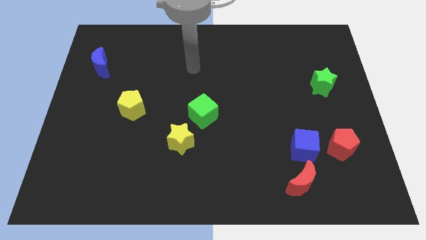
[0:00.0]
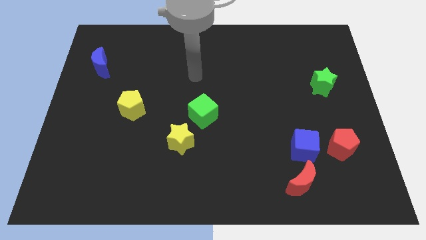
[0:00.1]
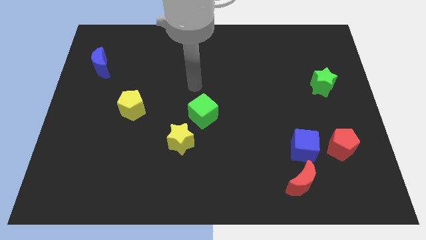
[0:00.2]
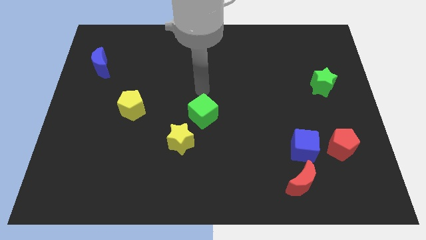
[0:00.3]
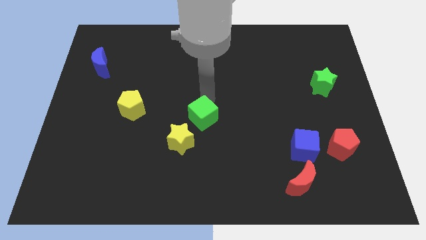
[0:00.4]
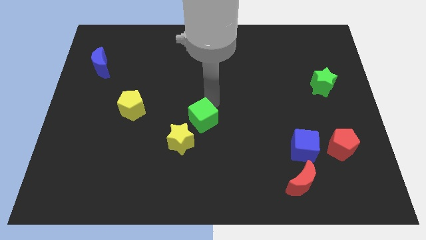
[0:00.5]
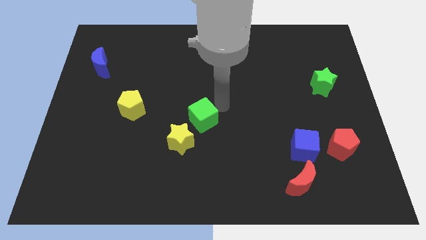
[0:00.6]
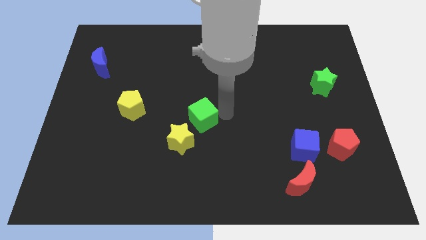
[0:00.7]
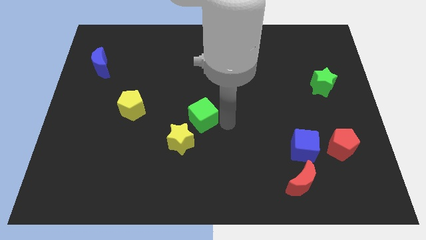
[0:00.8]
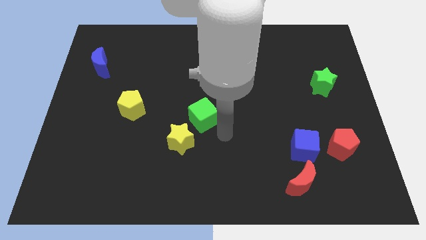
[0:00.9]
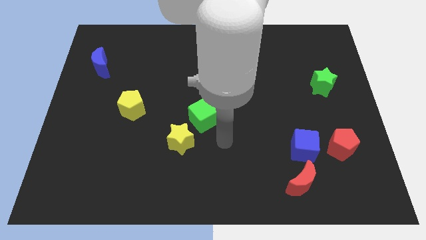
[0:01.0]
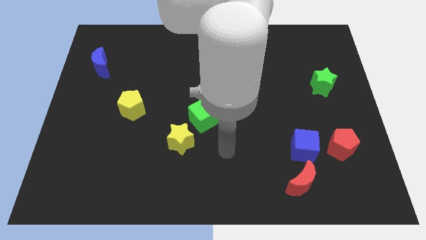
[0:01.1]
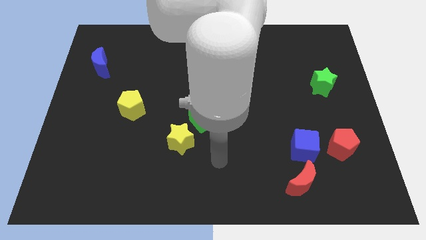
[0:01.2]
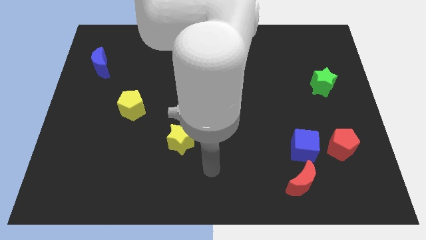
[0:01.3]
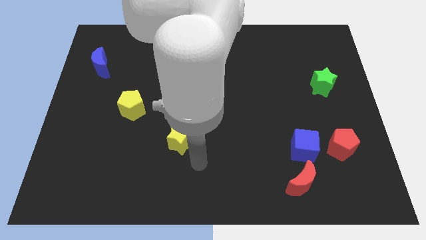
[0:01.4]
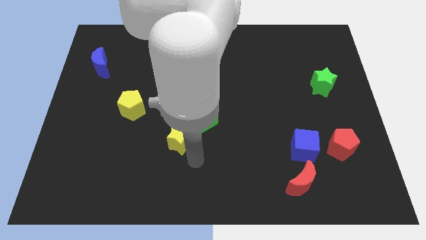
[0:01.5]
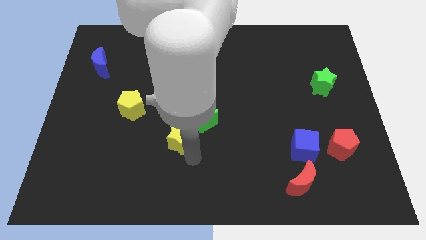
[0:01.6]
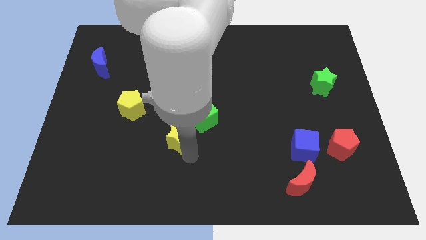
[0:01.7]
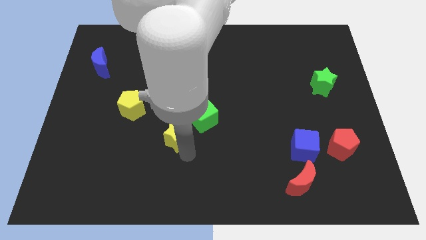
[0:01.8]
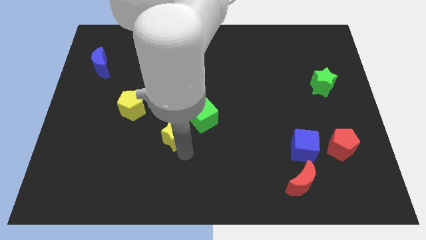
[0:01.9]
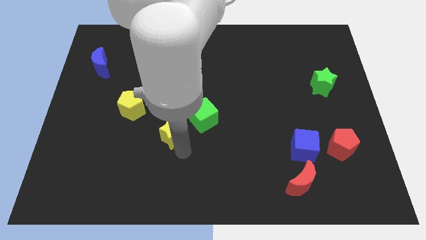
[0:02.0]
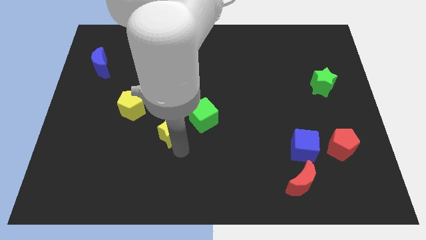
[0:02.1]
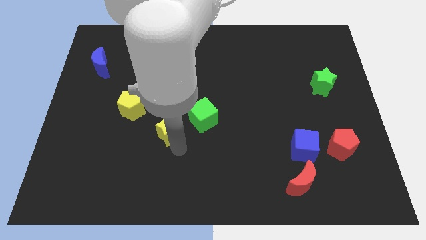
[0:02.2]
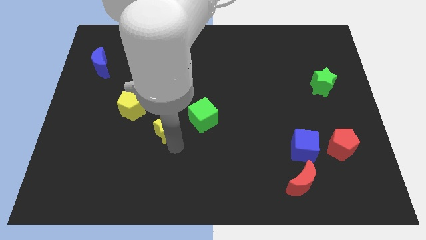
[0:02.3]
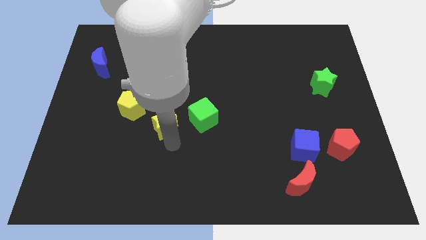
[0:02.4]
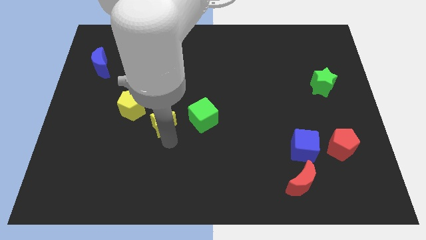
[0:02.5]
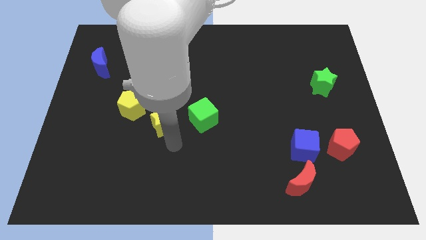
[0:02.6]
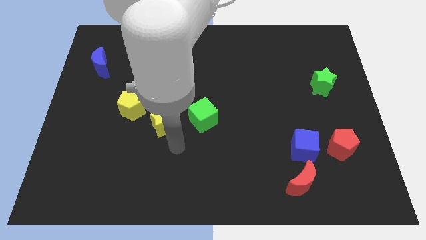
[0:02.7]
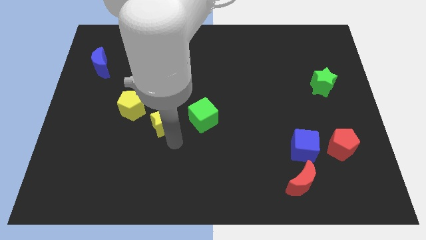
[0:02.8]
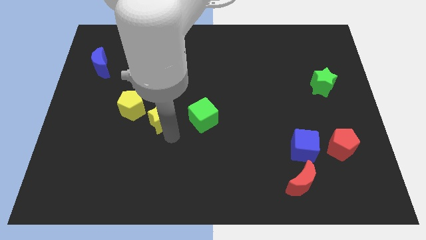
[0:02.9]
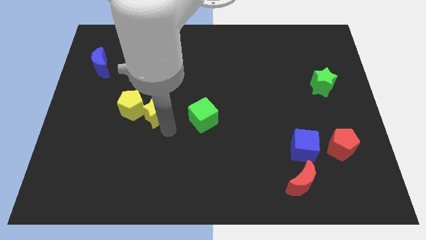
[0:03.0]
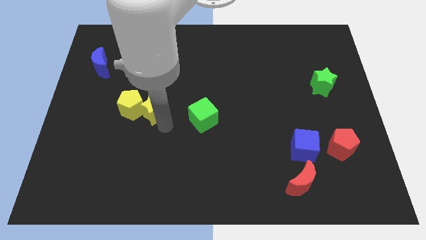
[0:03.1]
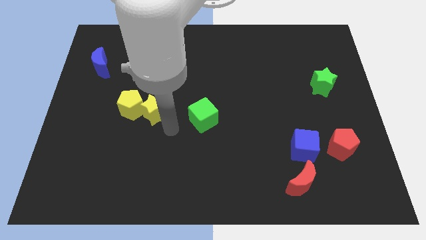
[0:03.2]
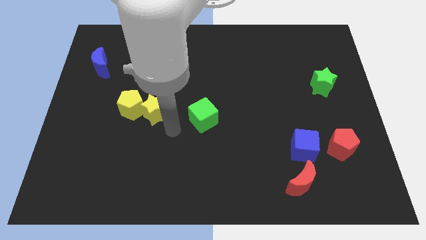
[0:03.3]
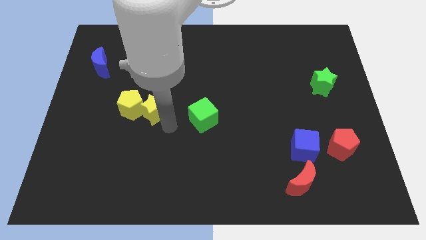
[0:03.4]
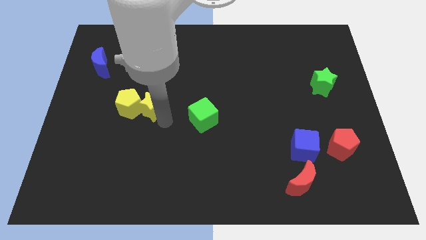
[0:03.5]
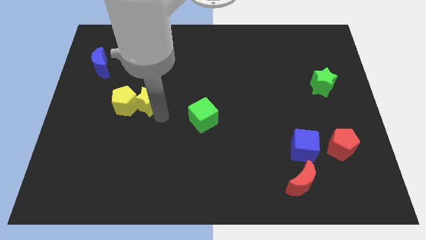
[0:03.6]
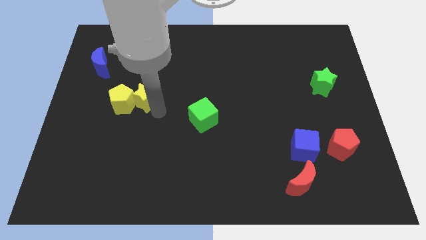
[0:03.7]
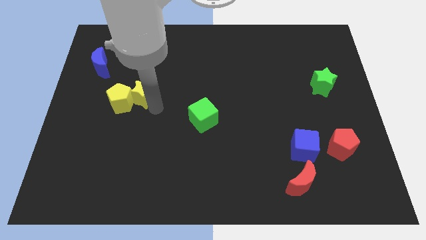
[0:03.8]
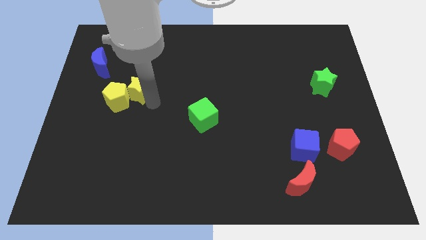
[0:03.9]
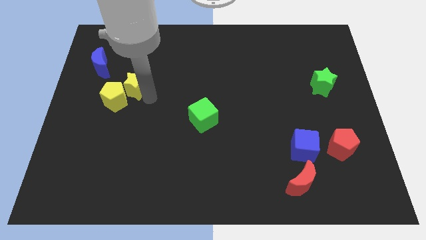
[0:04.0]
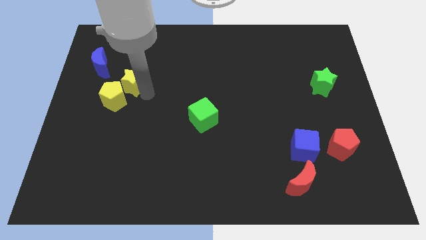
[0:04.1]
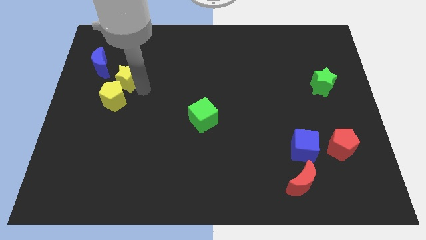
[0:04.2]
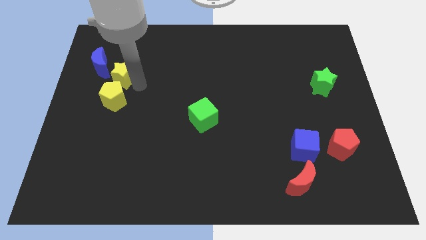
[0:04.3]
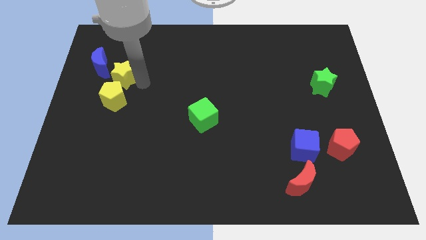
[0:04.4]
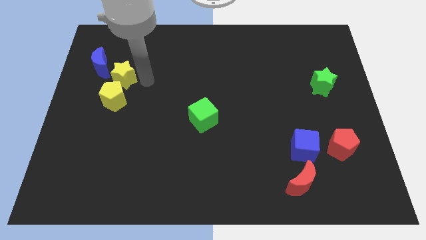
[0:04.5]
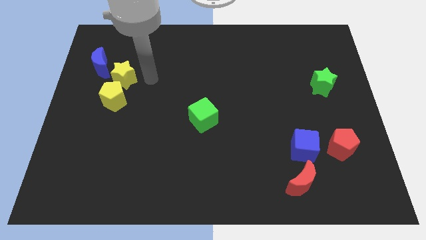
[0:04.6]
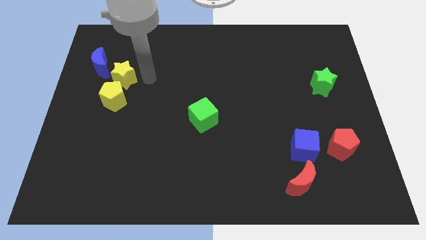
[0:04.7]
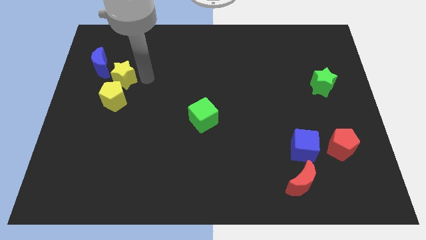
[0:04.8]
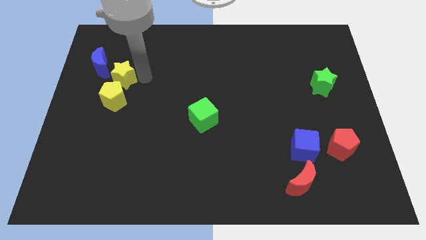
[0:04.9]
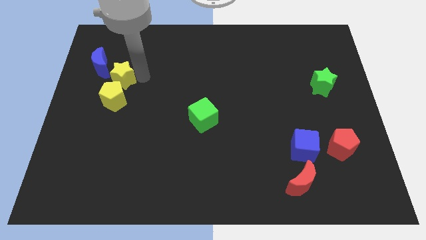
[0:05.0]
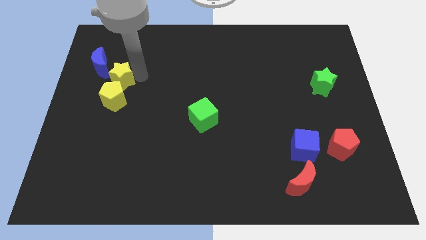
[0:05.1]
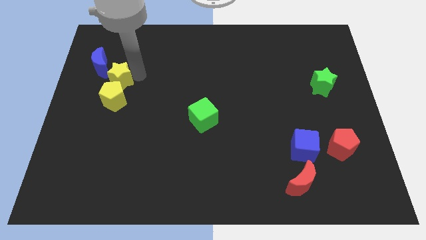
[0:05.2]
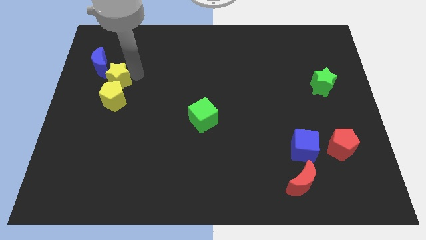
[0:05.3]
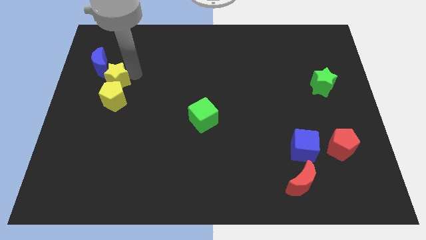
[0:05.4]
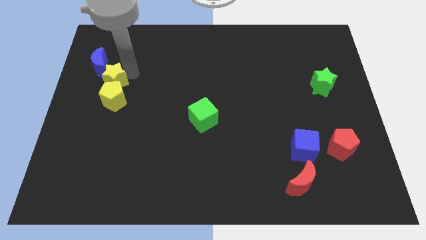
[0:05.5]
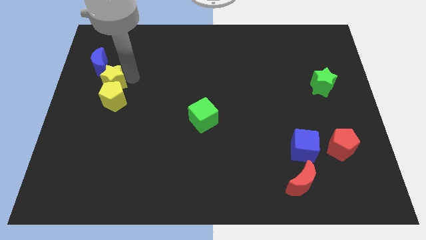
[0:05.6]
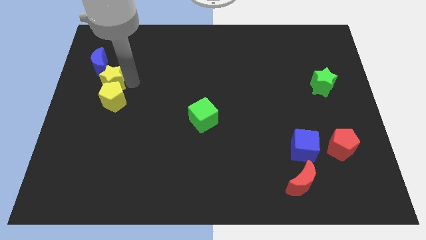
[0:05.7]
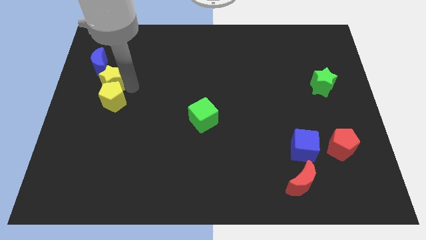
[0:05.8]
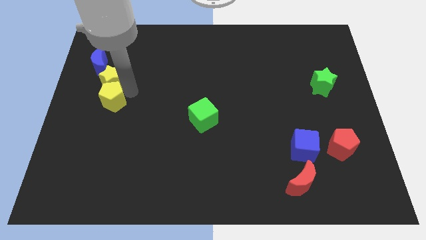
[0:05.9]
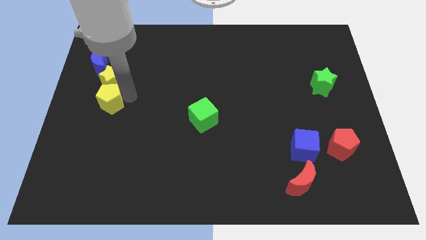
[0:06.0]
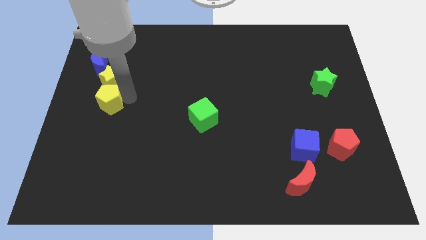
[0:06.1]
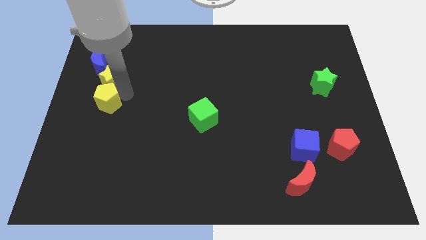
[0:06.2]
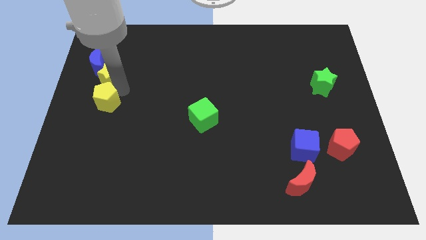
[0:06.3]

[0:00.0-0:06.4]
put the yellow star close to the blue moon

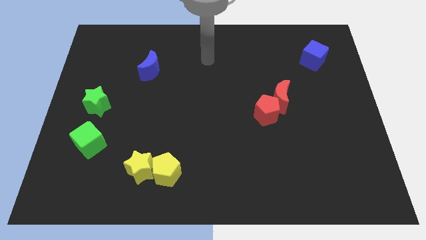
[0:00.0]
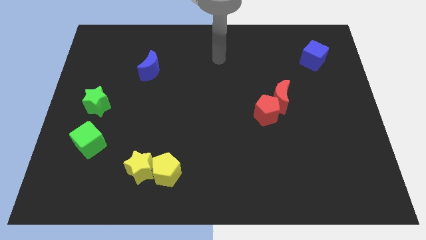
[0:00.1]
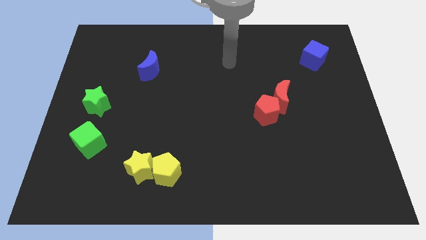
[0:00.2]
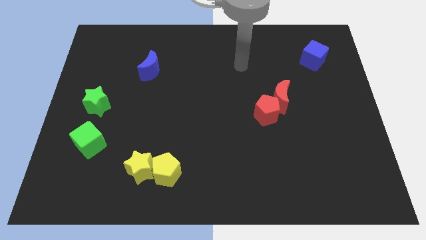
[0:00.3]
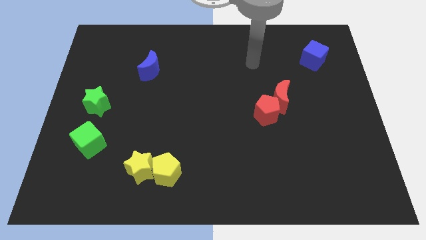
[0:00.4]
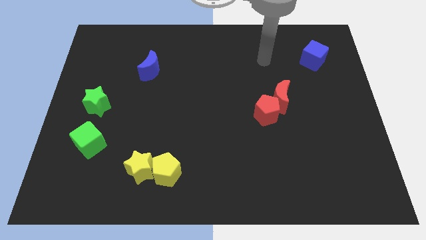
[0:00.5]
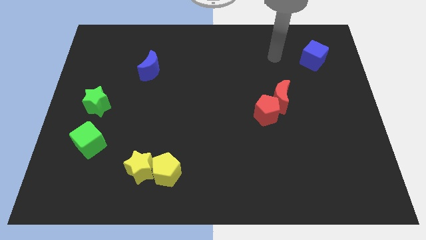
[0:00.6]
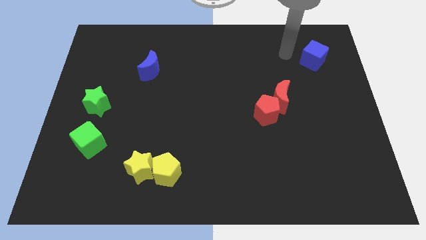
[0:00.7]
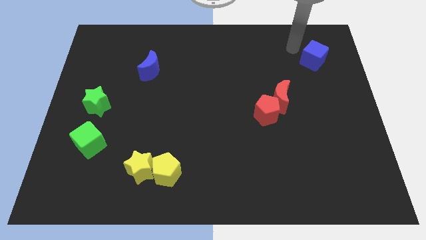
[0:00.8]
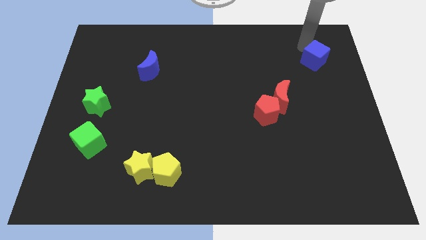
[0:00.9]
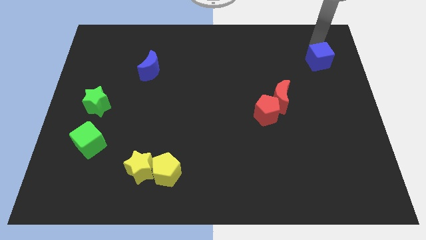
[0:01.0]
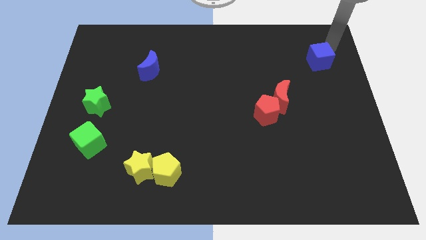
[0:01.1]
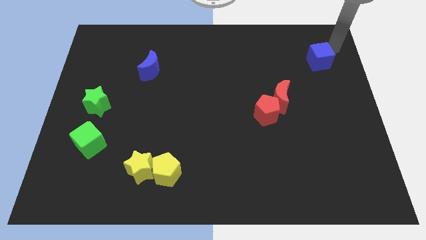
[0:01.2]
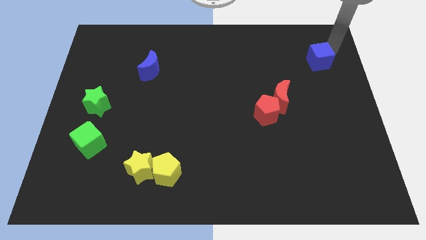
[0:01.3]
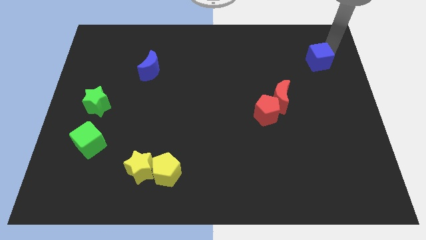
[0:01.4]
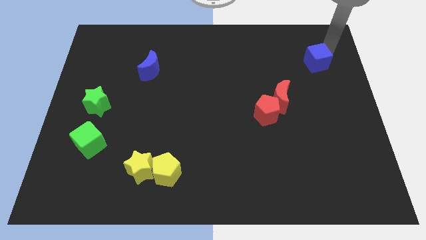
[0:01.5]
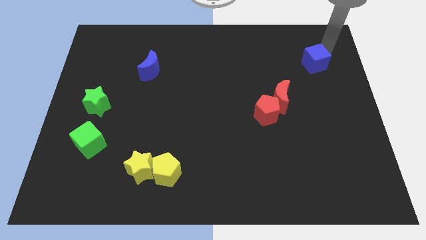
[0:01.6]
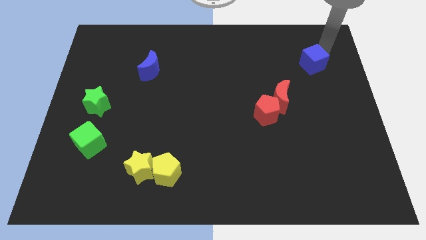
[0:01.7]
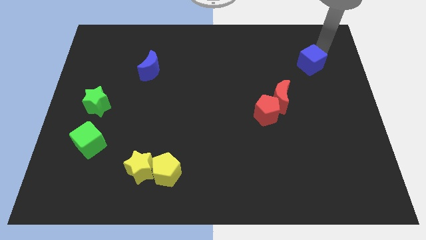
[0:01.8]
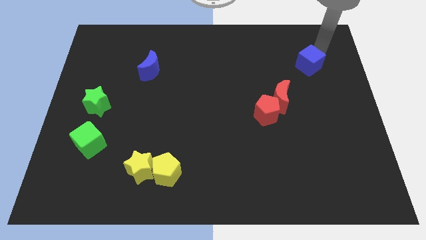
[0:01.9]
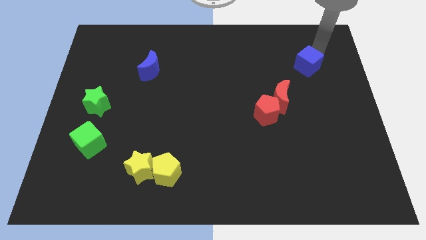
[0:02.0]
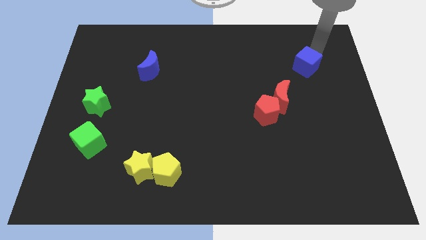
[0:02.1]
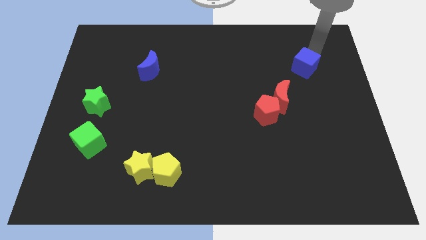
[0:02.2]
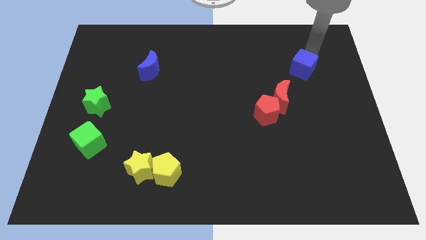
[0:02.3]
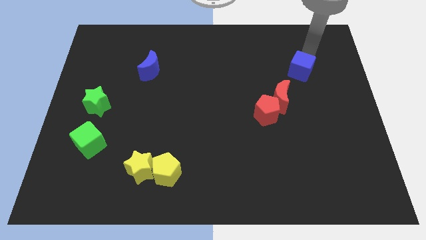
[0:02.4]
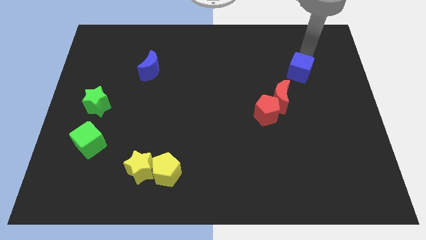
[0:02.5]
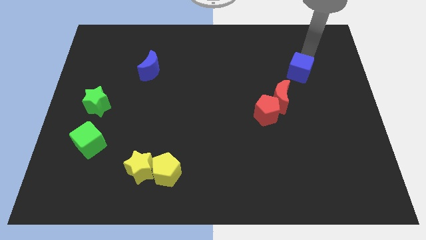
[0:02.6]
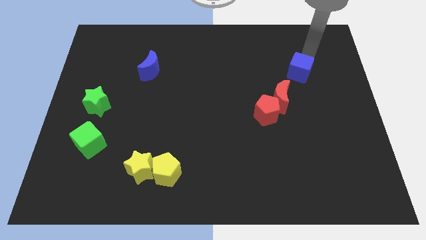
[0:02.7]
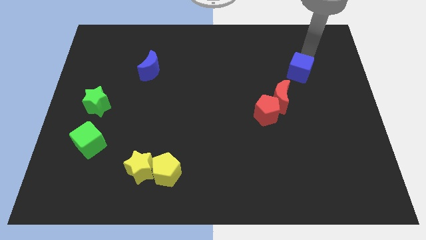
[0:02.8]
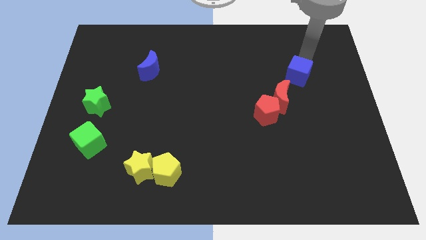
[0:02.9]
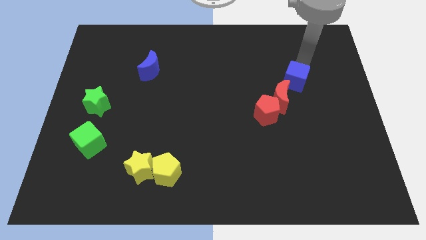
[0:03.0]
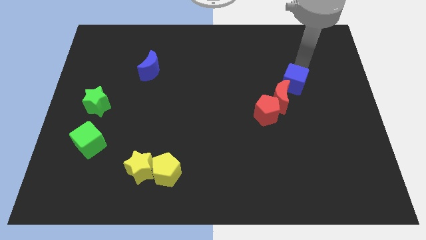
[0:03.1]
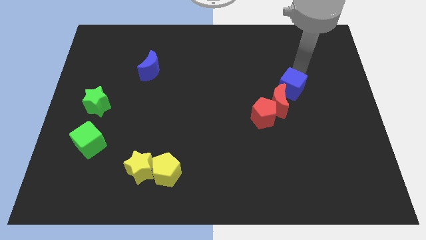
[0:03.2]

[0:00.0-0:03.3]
push the blue cube close to the red moon
